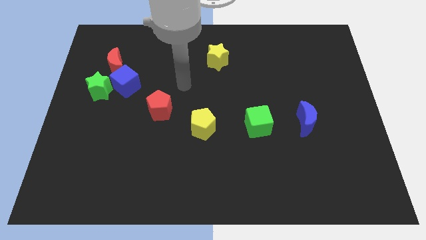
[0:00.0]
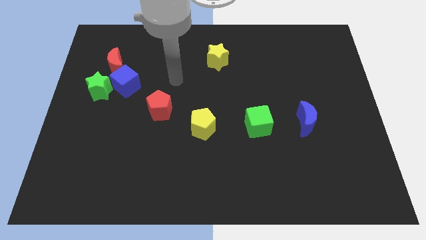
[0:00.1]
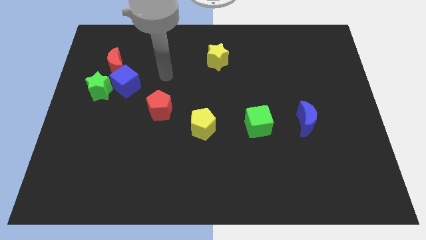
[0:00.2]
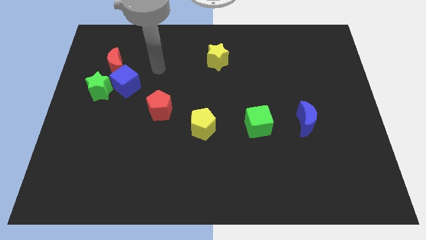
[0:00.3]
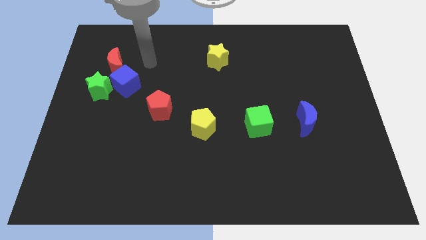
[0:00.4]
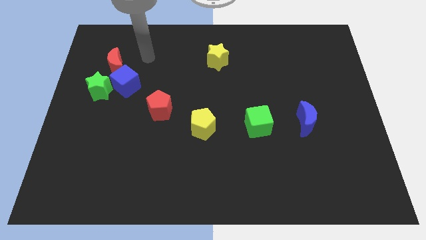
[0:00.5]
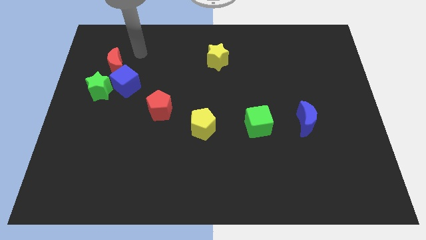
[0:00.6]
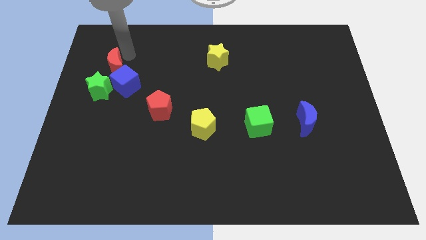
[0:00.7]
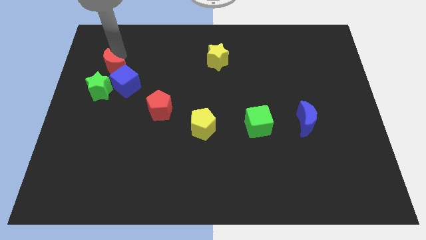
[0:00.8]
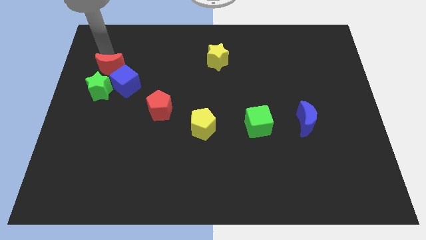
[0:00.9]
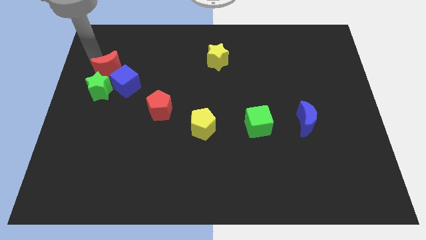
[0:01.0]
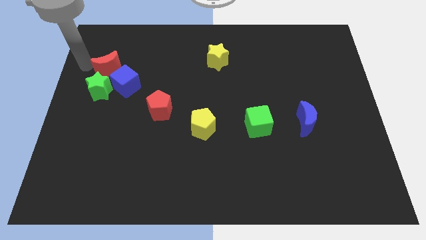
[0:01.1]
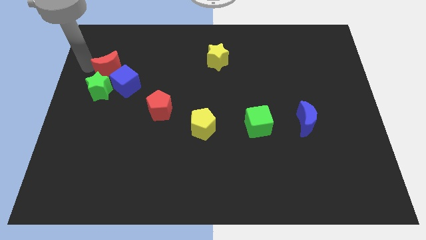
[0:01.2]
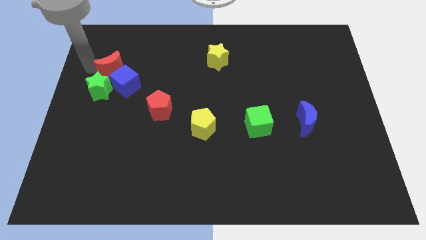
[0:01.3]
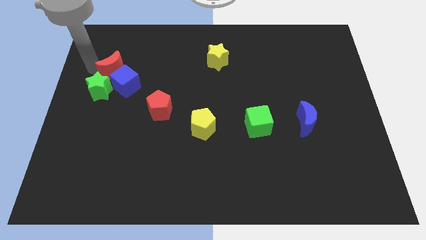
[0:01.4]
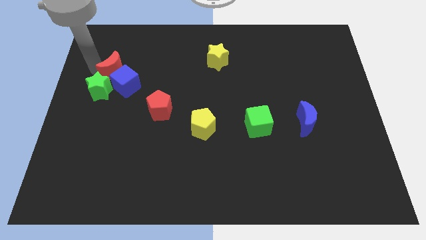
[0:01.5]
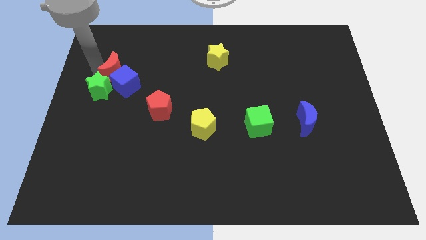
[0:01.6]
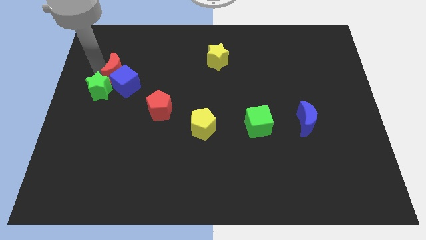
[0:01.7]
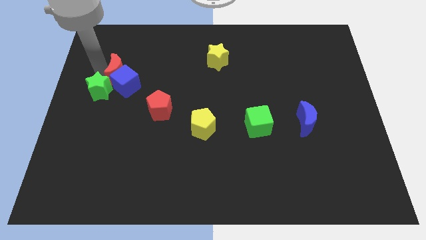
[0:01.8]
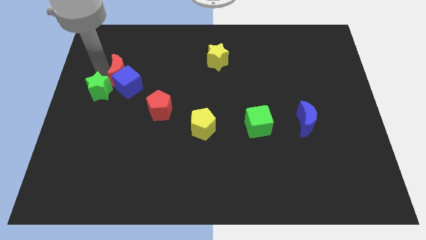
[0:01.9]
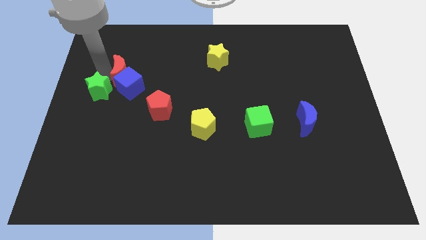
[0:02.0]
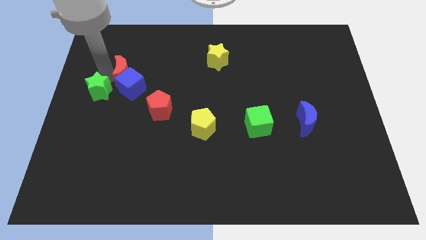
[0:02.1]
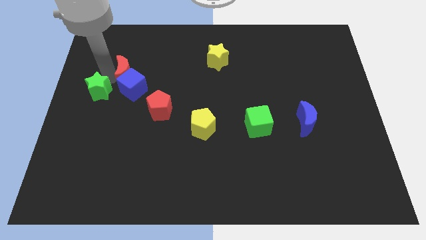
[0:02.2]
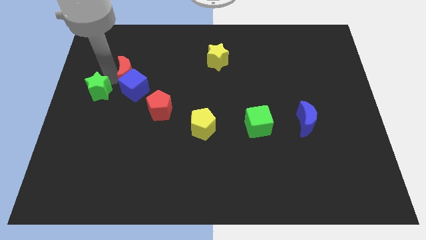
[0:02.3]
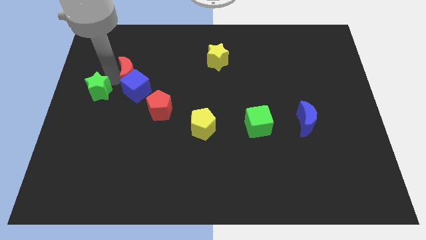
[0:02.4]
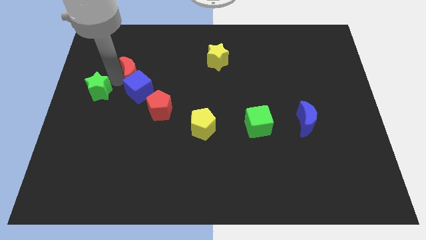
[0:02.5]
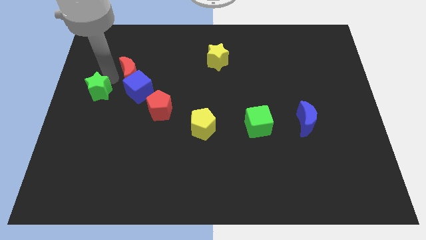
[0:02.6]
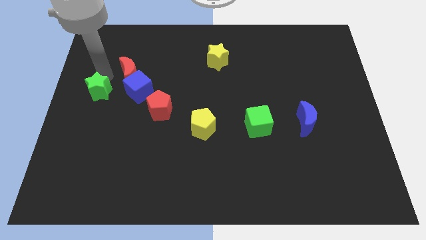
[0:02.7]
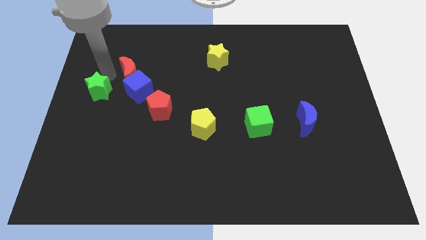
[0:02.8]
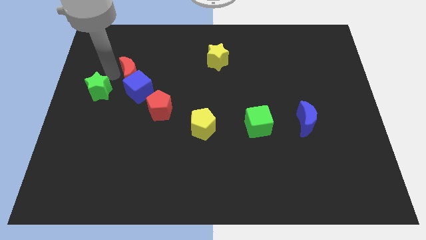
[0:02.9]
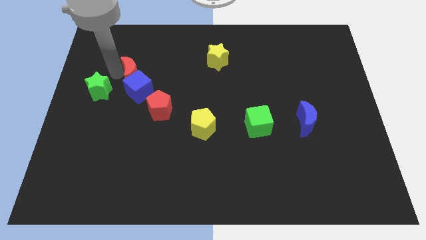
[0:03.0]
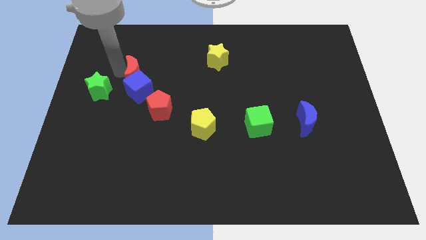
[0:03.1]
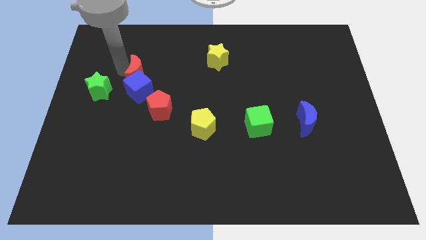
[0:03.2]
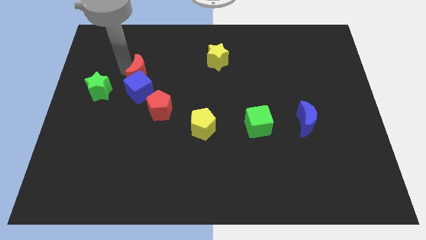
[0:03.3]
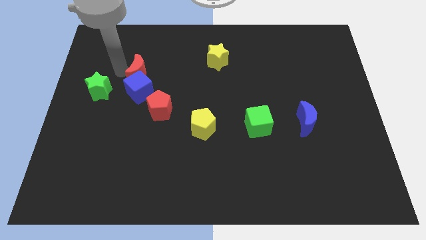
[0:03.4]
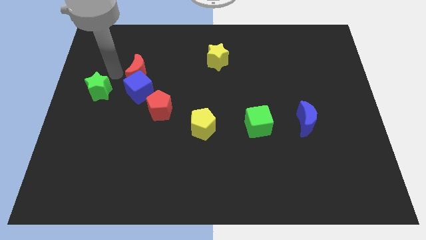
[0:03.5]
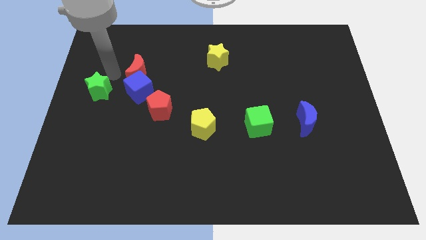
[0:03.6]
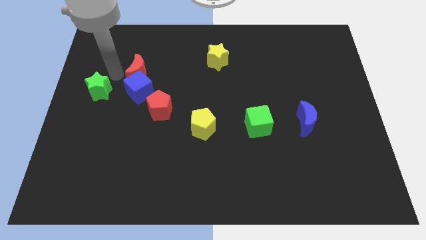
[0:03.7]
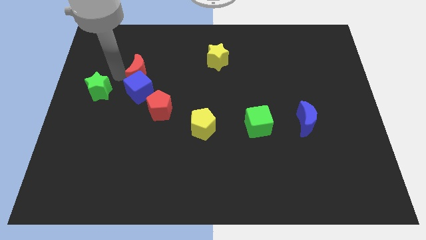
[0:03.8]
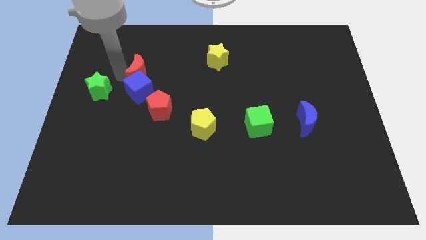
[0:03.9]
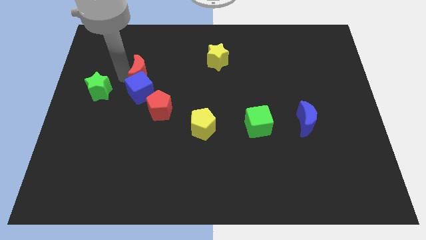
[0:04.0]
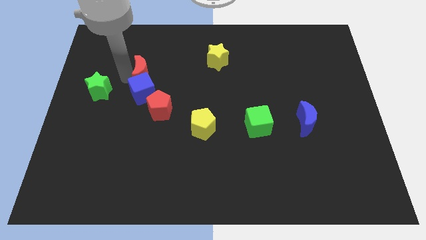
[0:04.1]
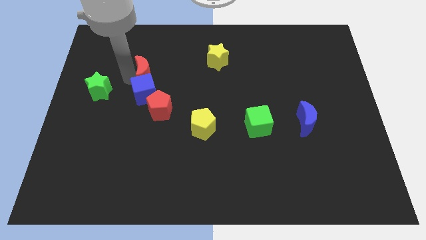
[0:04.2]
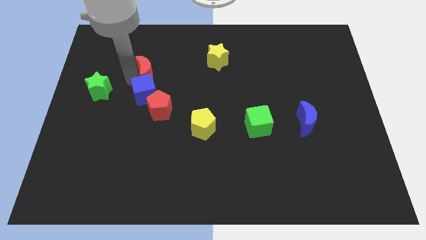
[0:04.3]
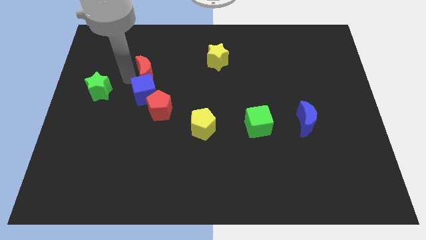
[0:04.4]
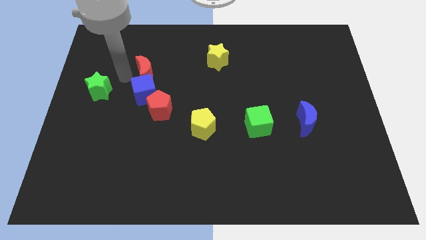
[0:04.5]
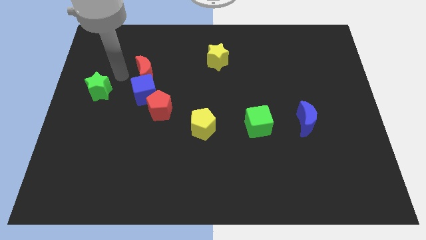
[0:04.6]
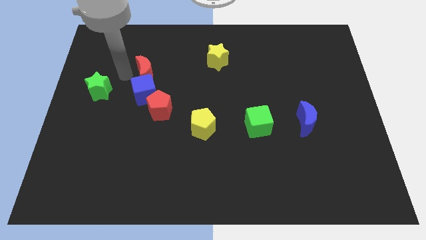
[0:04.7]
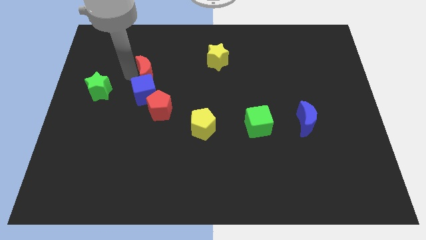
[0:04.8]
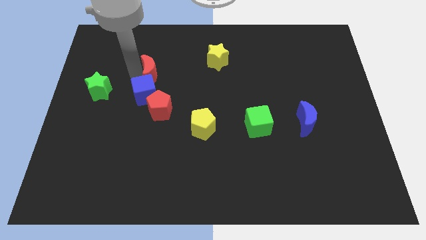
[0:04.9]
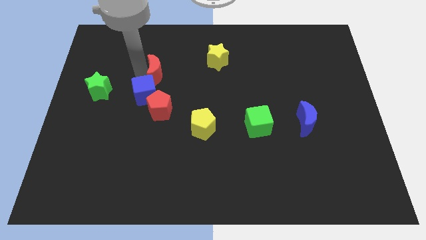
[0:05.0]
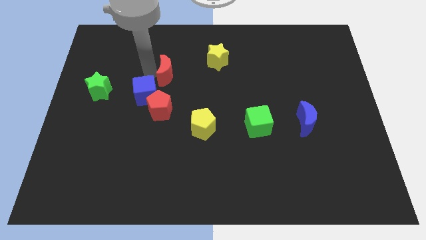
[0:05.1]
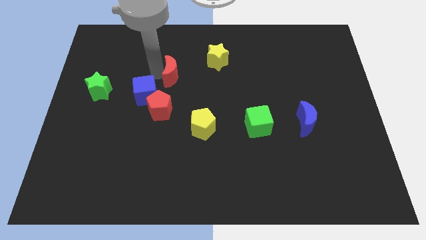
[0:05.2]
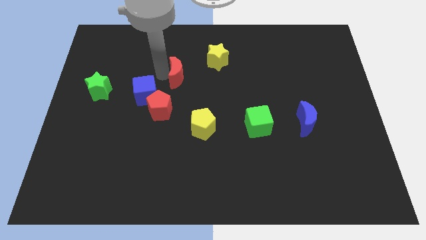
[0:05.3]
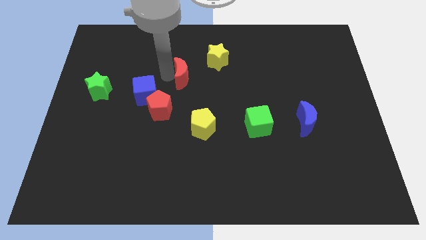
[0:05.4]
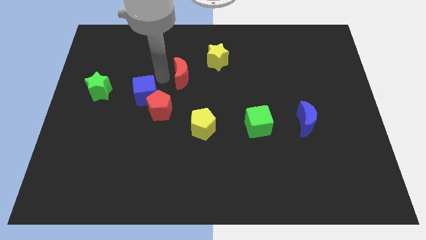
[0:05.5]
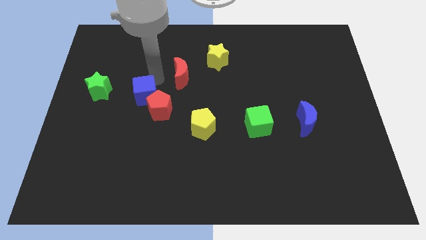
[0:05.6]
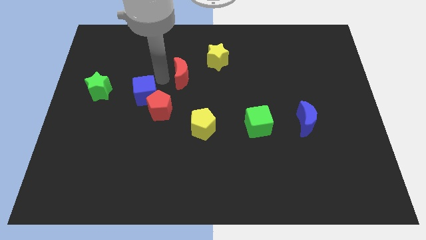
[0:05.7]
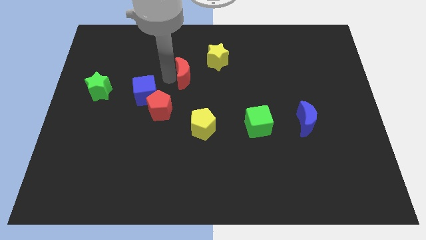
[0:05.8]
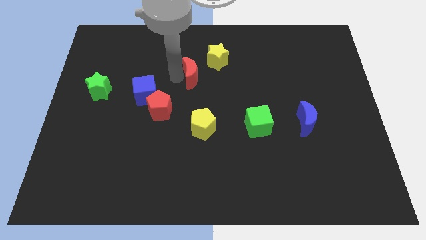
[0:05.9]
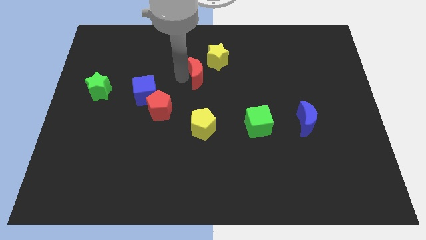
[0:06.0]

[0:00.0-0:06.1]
move the red moon right

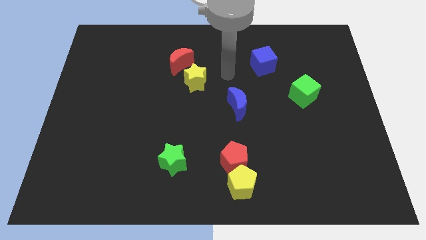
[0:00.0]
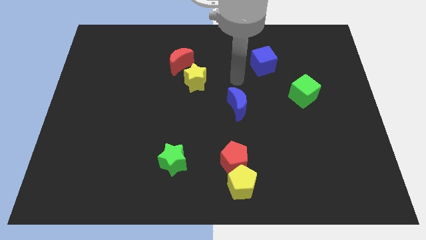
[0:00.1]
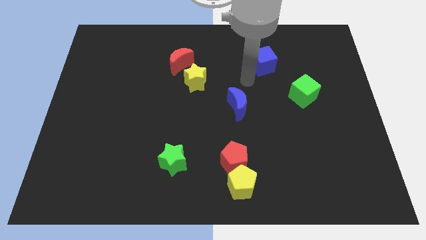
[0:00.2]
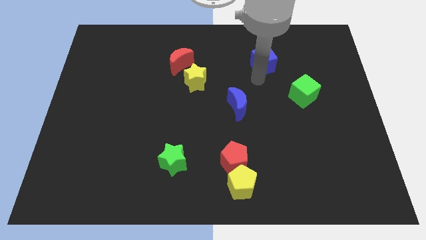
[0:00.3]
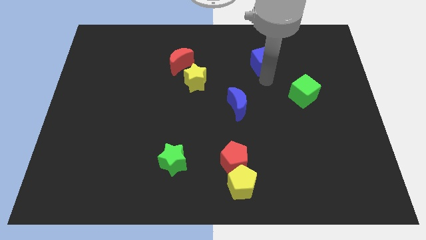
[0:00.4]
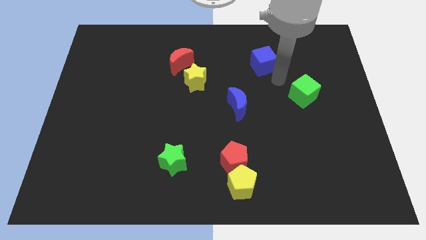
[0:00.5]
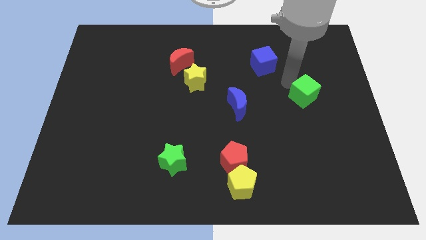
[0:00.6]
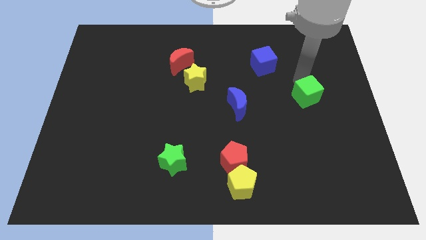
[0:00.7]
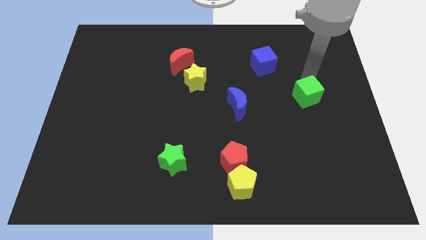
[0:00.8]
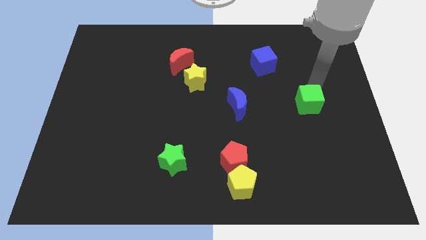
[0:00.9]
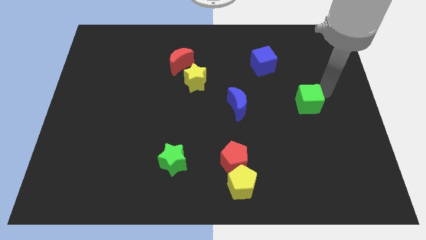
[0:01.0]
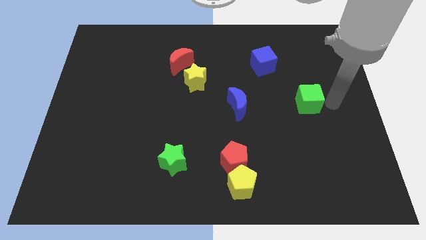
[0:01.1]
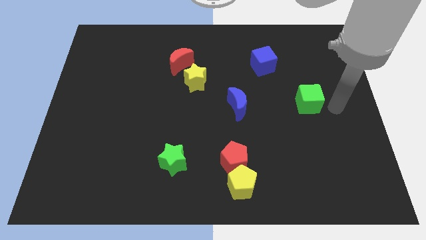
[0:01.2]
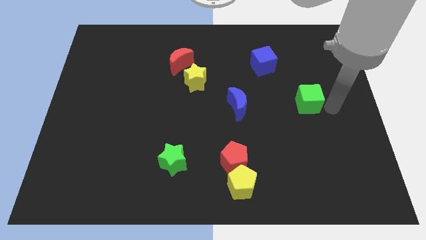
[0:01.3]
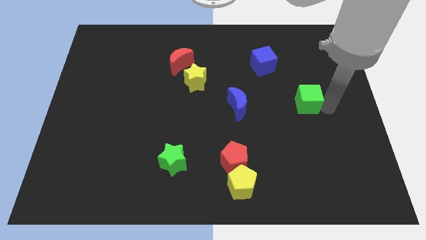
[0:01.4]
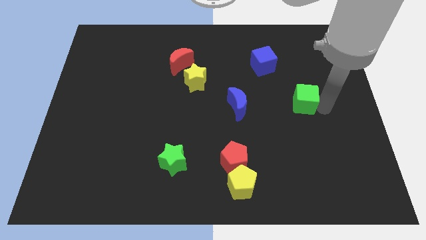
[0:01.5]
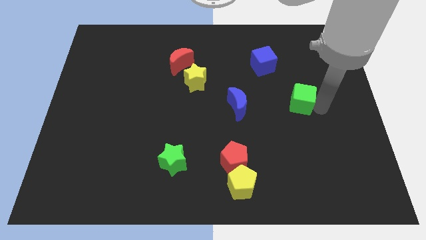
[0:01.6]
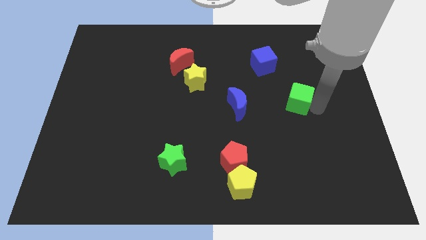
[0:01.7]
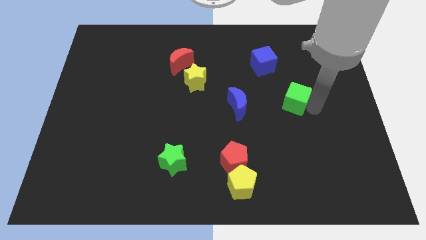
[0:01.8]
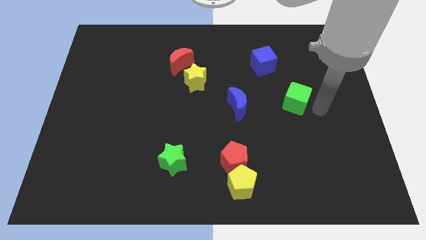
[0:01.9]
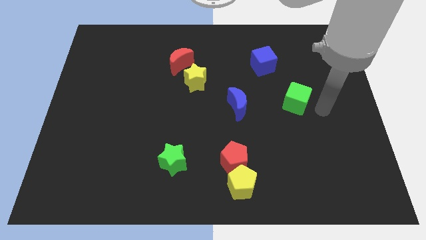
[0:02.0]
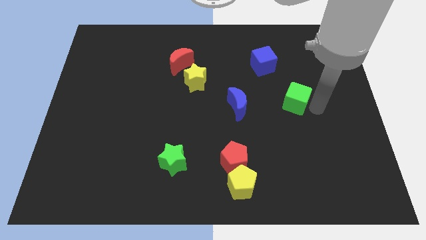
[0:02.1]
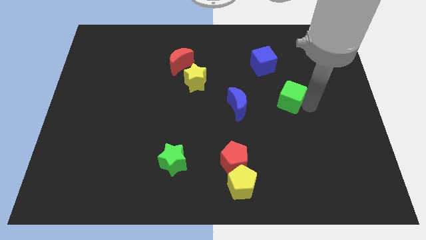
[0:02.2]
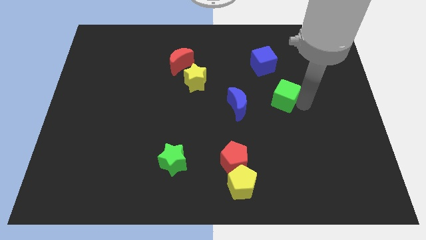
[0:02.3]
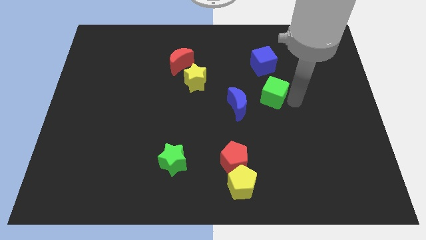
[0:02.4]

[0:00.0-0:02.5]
slightly push the green cube to the left
